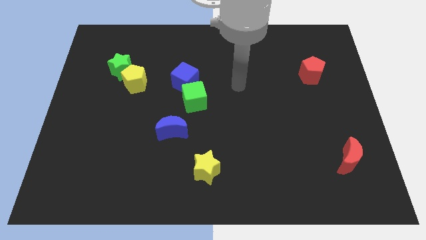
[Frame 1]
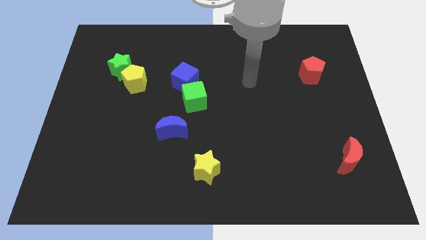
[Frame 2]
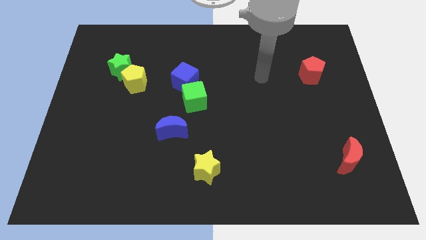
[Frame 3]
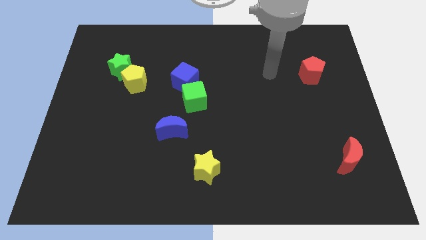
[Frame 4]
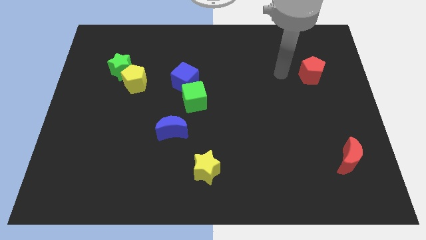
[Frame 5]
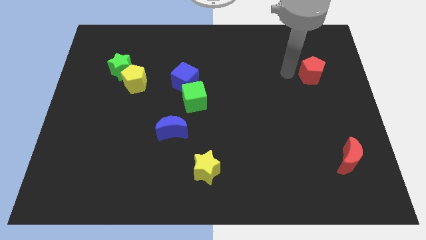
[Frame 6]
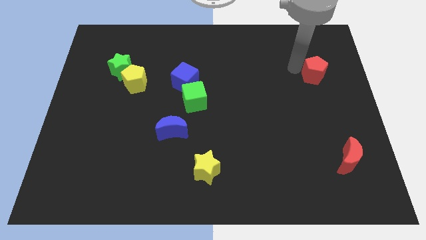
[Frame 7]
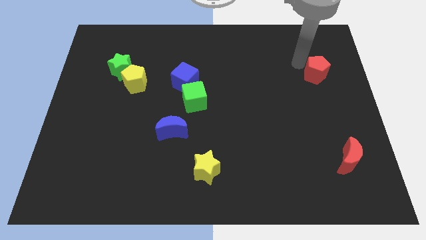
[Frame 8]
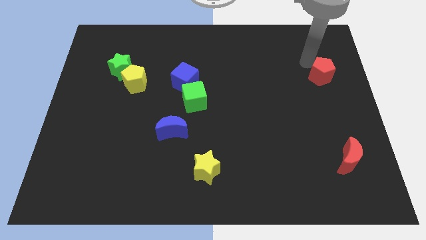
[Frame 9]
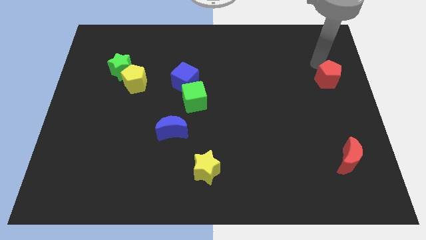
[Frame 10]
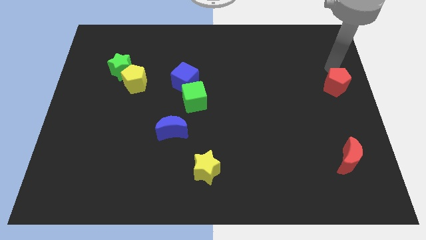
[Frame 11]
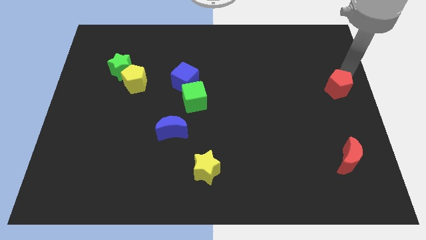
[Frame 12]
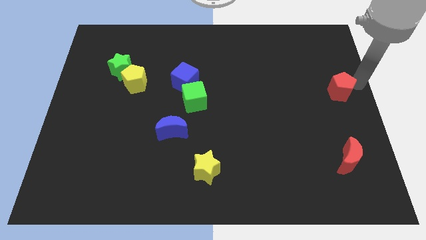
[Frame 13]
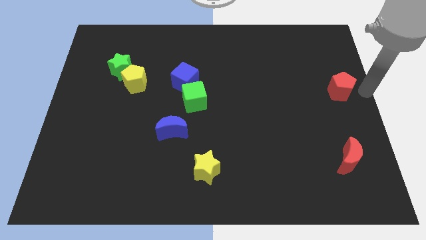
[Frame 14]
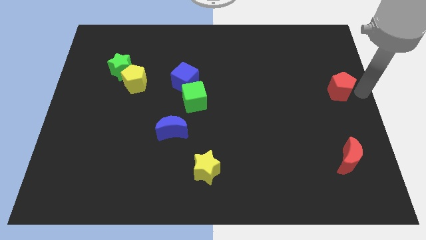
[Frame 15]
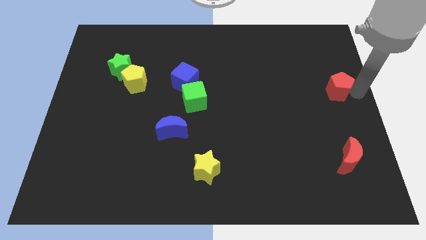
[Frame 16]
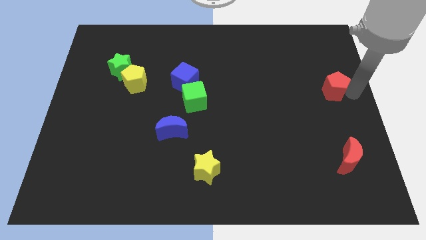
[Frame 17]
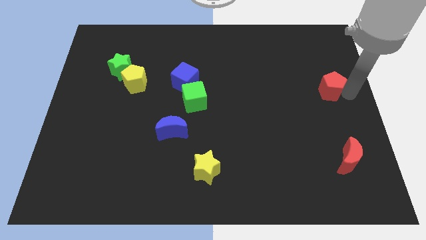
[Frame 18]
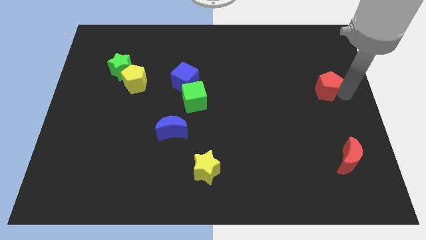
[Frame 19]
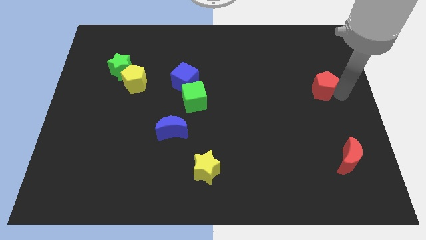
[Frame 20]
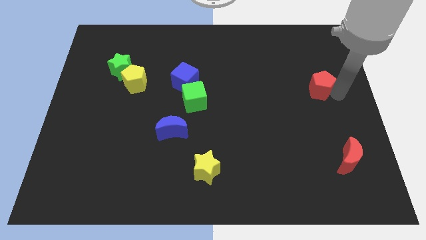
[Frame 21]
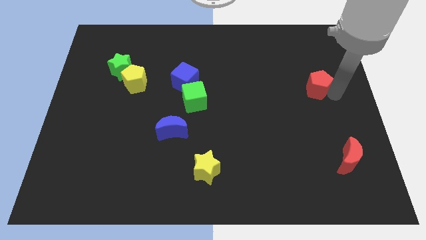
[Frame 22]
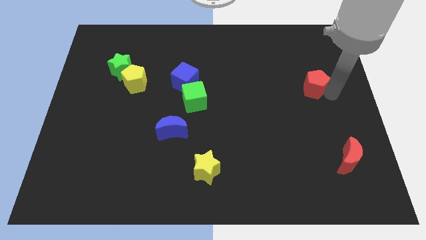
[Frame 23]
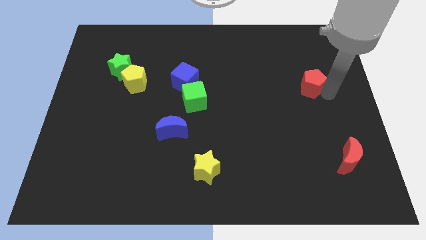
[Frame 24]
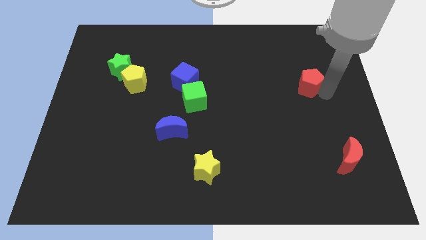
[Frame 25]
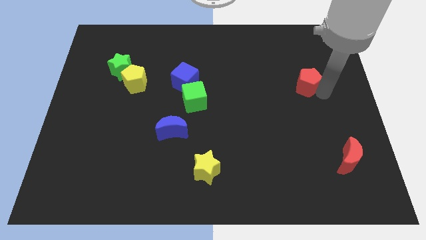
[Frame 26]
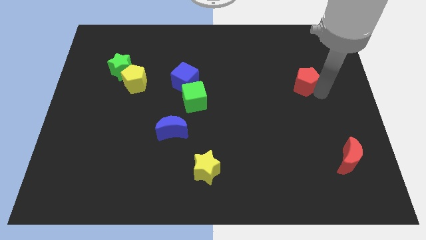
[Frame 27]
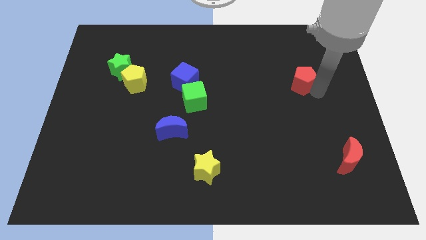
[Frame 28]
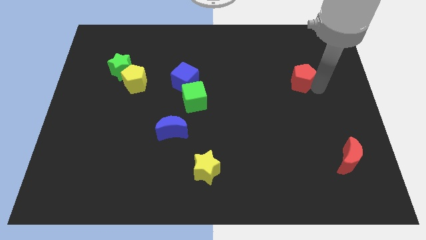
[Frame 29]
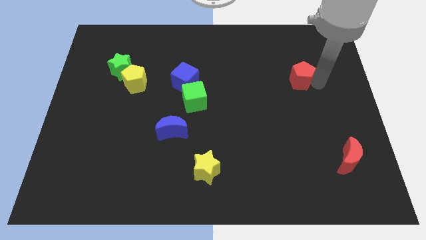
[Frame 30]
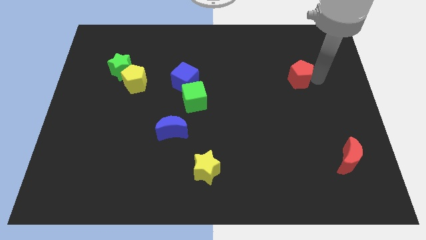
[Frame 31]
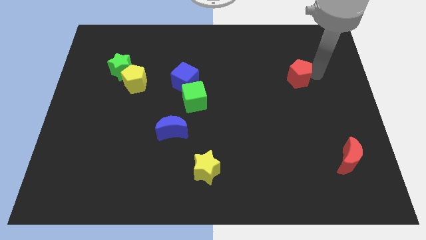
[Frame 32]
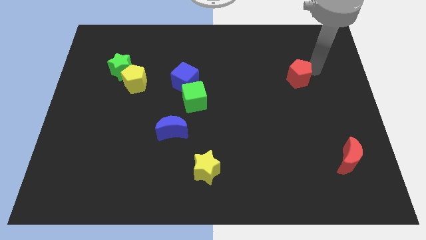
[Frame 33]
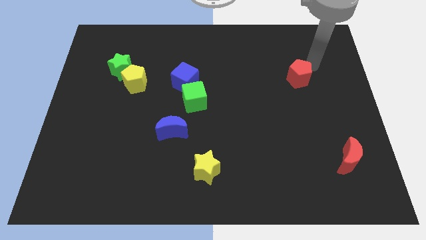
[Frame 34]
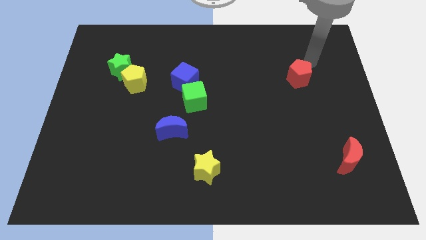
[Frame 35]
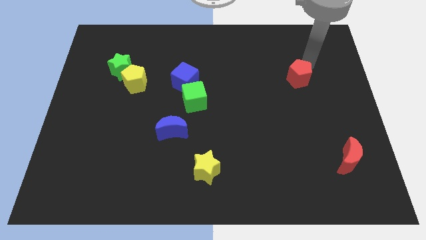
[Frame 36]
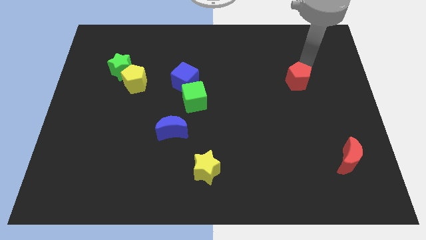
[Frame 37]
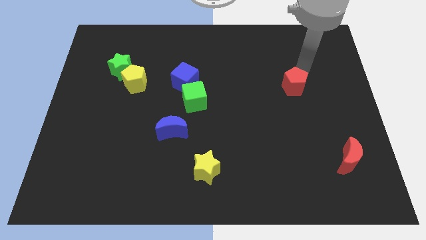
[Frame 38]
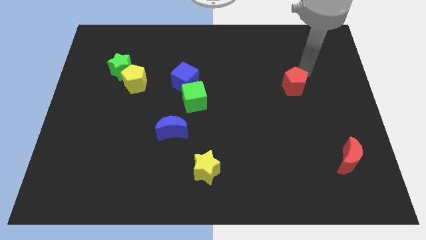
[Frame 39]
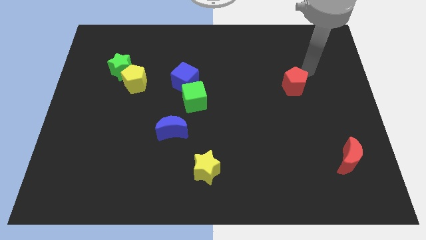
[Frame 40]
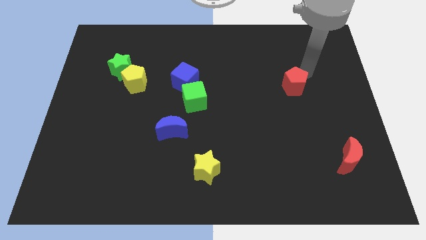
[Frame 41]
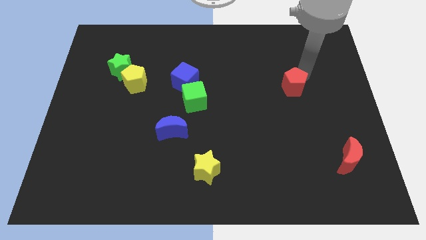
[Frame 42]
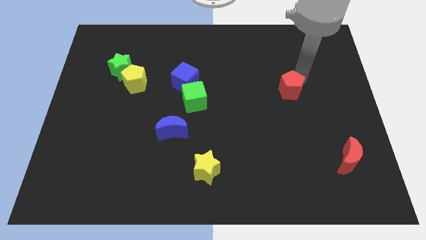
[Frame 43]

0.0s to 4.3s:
slightly slide the red pentagon down and then left

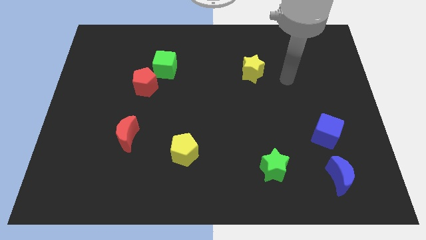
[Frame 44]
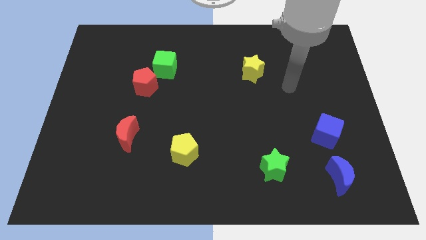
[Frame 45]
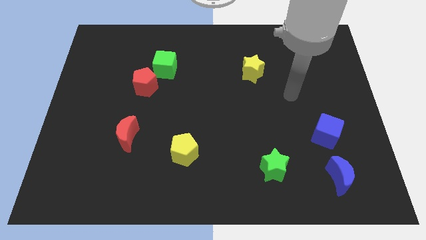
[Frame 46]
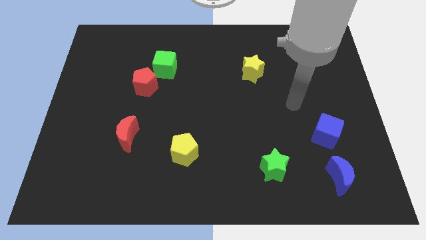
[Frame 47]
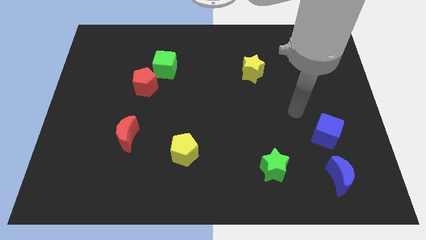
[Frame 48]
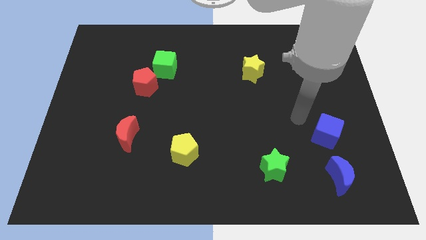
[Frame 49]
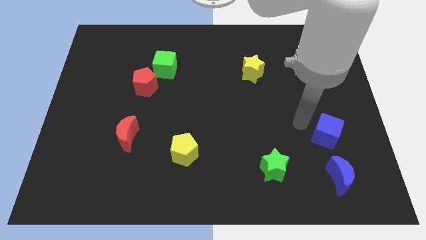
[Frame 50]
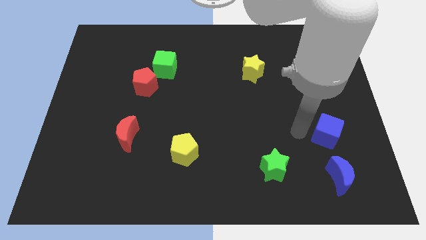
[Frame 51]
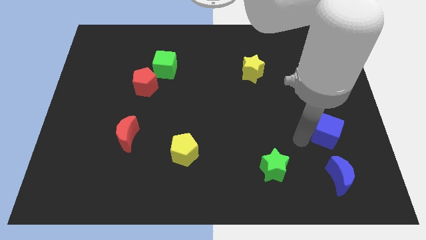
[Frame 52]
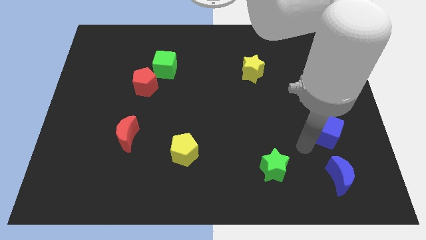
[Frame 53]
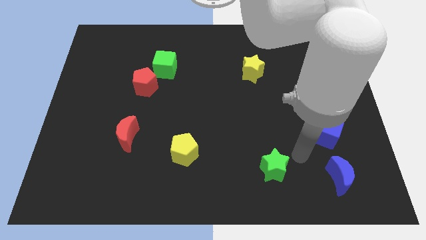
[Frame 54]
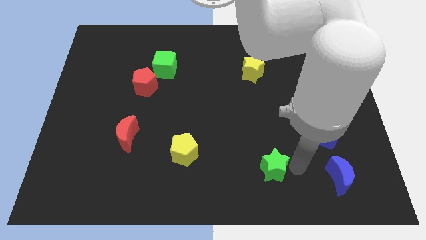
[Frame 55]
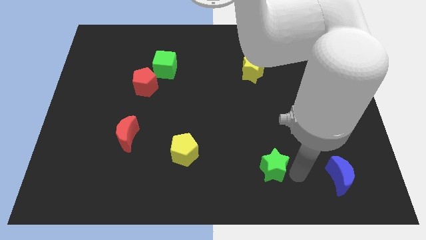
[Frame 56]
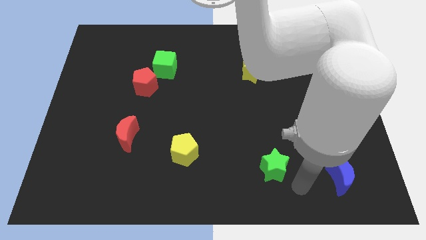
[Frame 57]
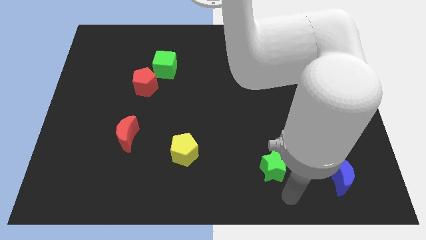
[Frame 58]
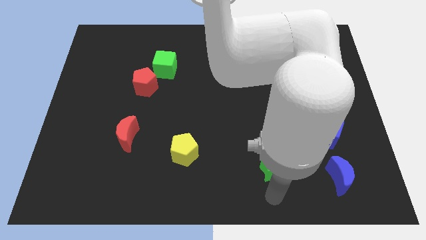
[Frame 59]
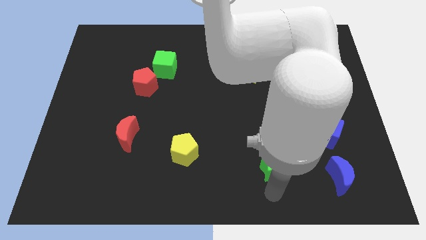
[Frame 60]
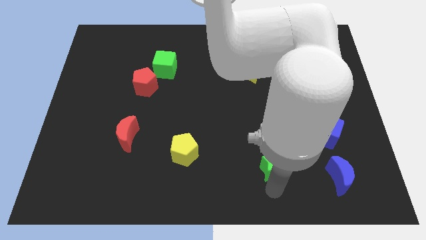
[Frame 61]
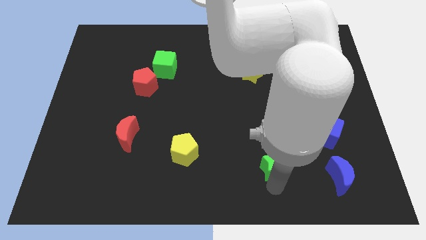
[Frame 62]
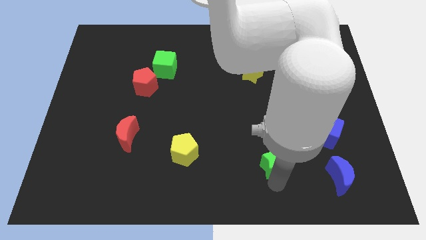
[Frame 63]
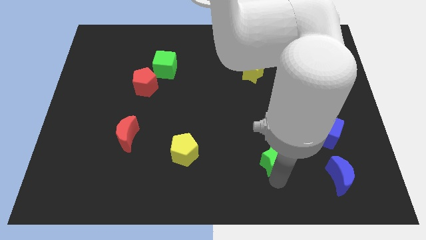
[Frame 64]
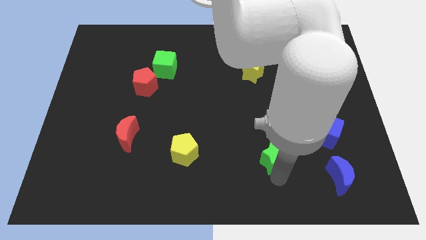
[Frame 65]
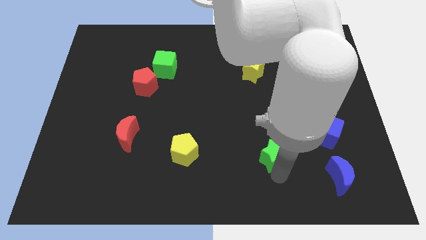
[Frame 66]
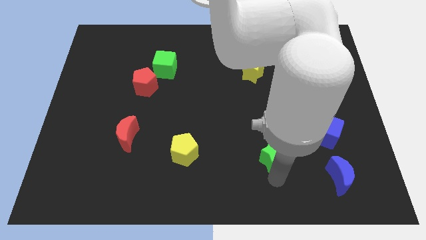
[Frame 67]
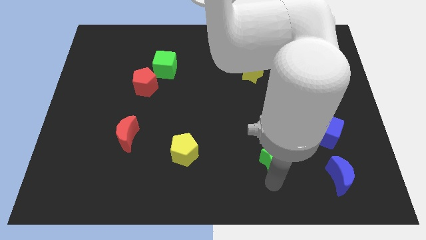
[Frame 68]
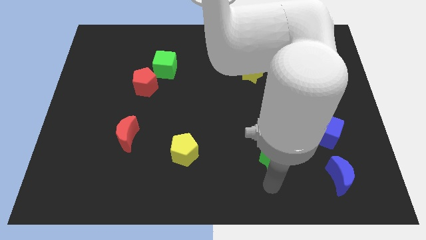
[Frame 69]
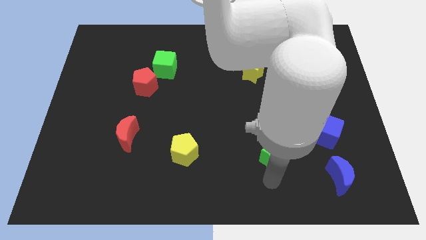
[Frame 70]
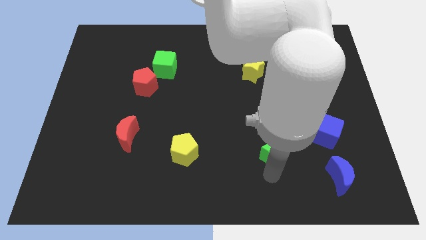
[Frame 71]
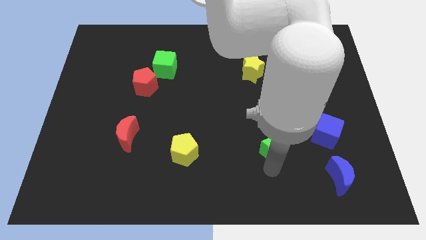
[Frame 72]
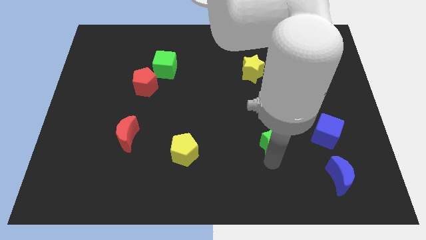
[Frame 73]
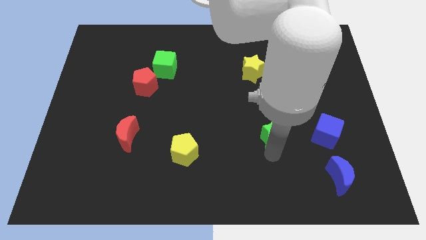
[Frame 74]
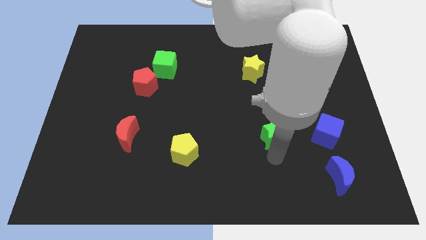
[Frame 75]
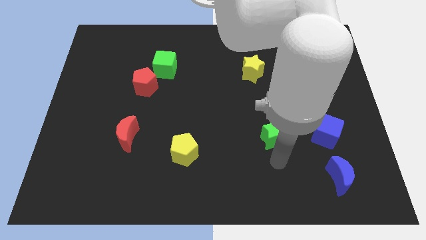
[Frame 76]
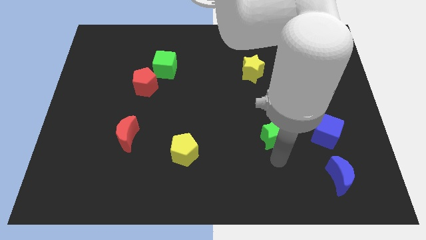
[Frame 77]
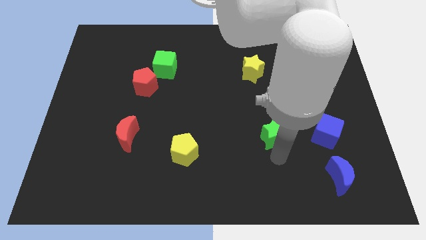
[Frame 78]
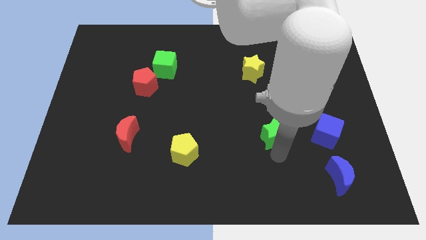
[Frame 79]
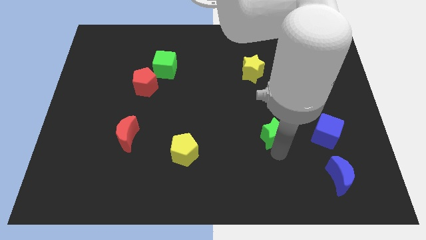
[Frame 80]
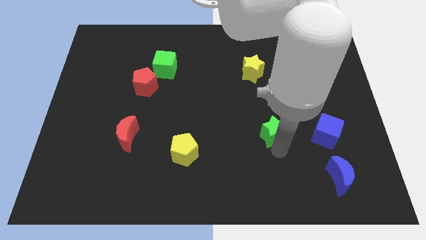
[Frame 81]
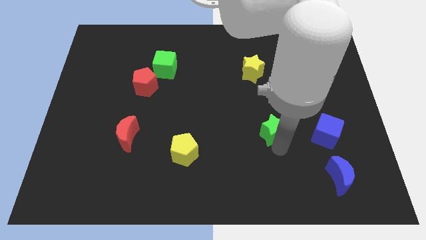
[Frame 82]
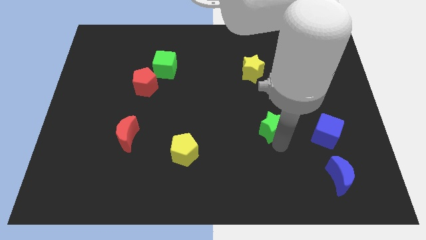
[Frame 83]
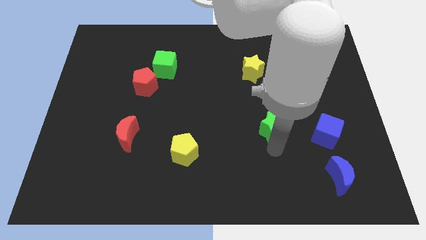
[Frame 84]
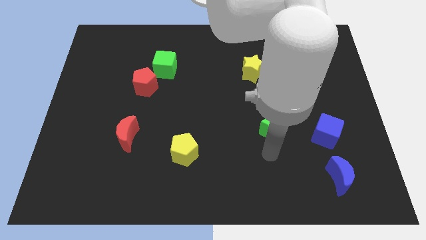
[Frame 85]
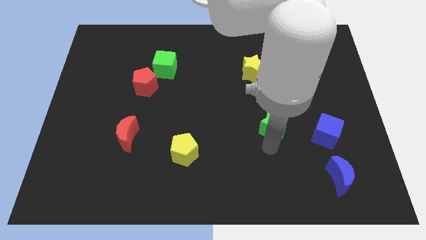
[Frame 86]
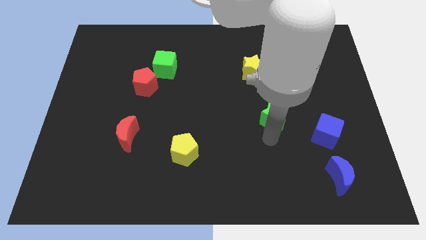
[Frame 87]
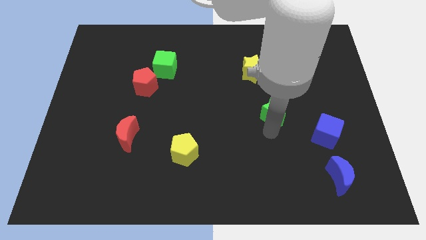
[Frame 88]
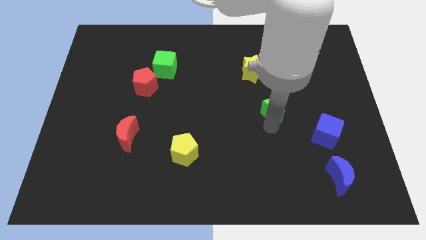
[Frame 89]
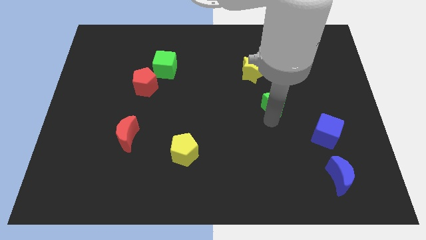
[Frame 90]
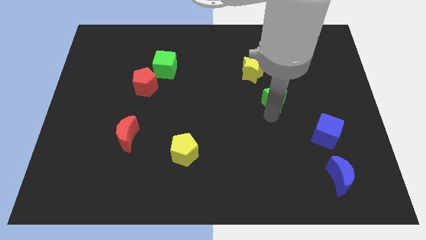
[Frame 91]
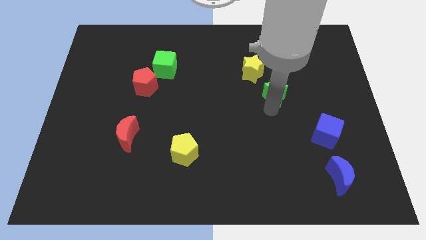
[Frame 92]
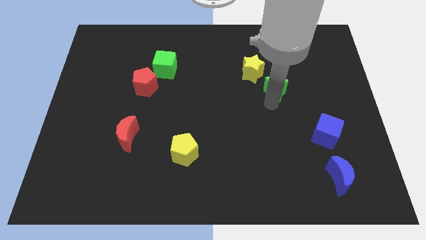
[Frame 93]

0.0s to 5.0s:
slide the green star up
